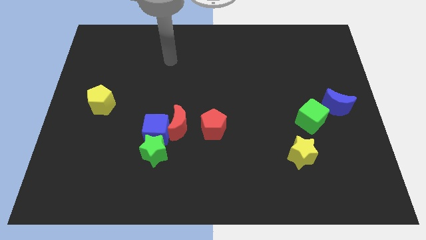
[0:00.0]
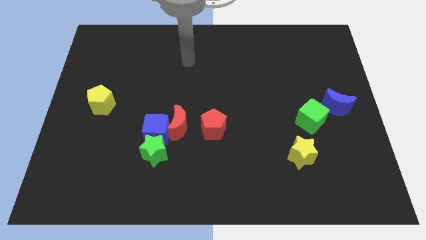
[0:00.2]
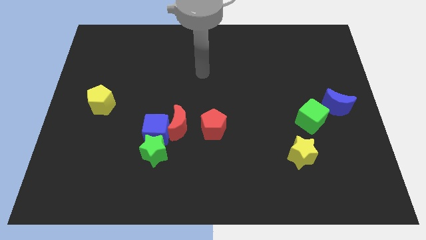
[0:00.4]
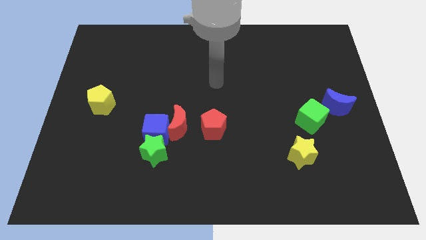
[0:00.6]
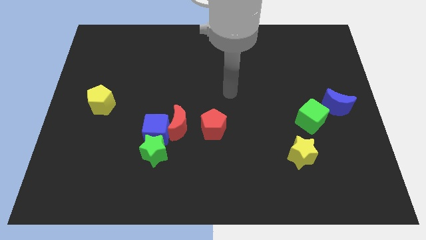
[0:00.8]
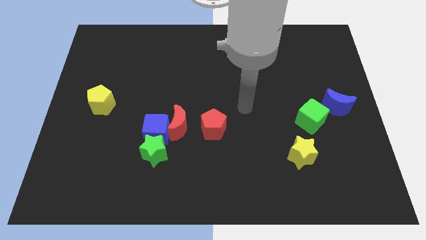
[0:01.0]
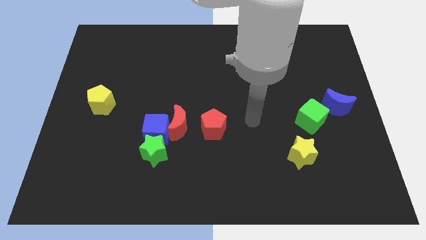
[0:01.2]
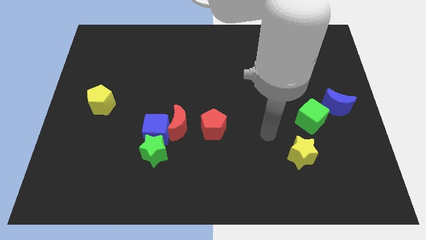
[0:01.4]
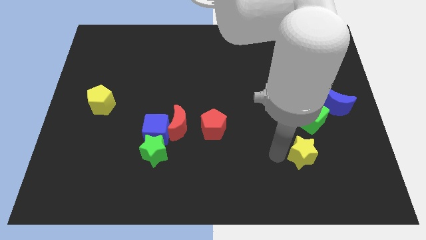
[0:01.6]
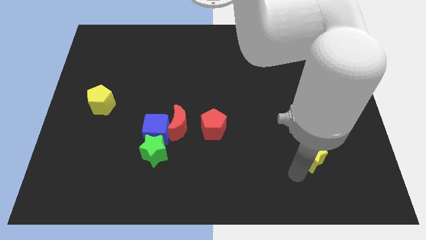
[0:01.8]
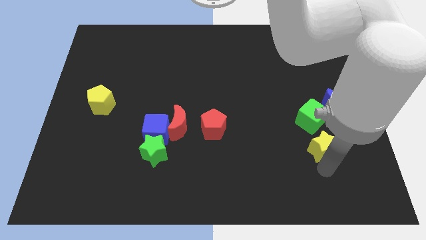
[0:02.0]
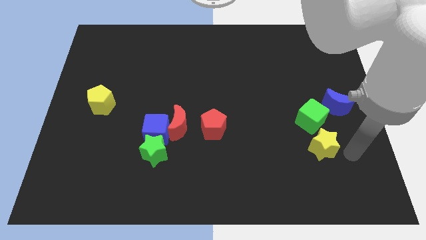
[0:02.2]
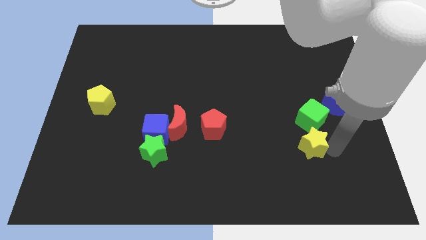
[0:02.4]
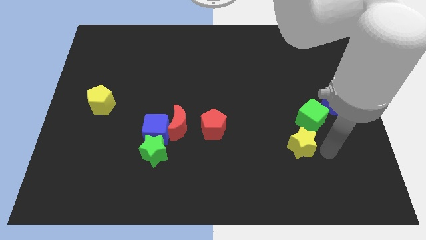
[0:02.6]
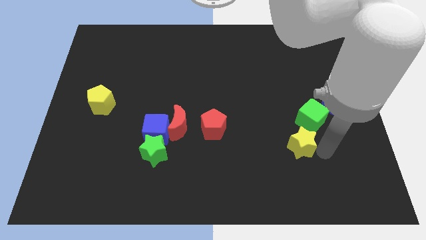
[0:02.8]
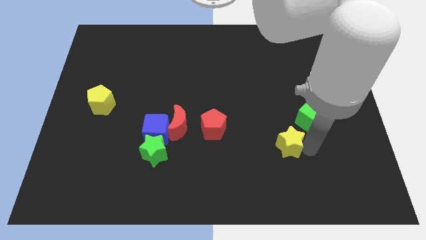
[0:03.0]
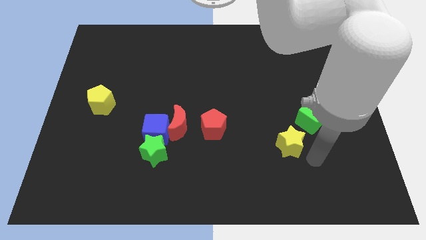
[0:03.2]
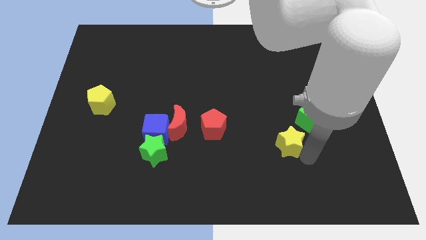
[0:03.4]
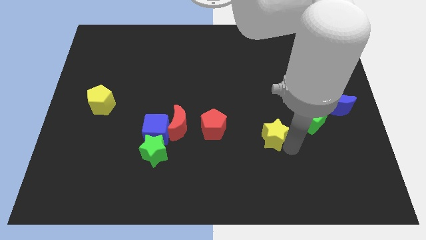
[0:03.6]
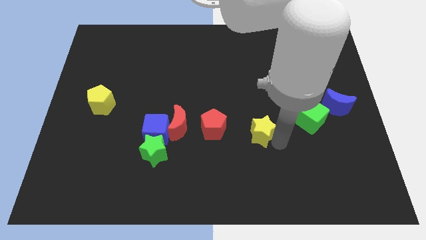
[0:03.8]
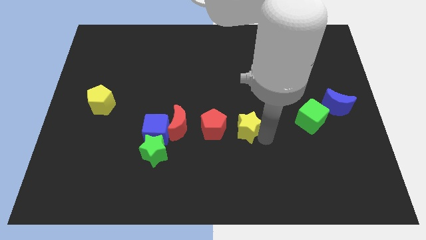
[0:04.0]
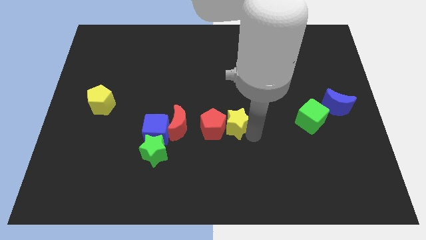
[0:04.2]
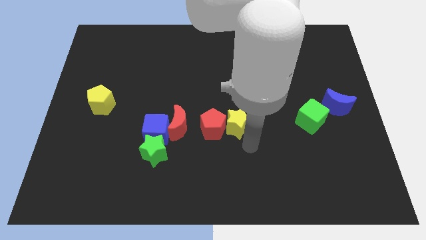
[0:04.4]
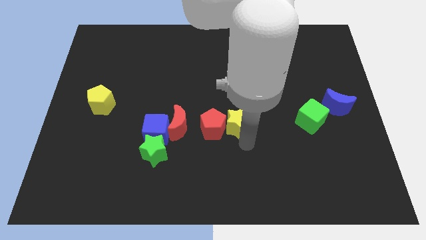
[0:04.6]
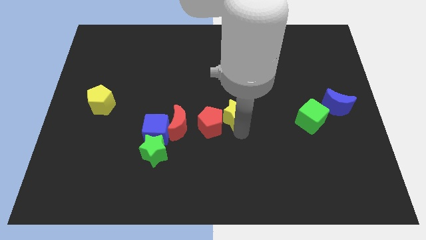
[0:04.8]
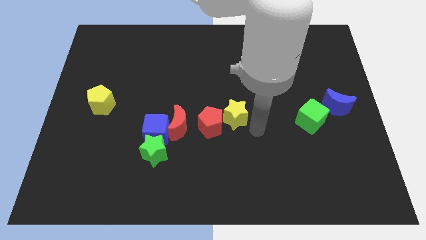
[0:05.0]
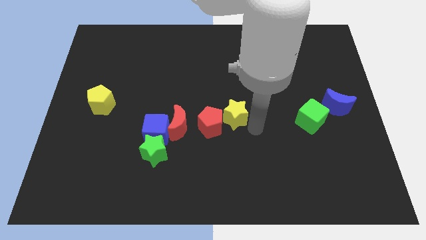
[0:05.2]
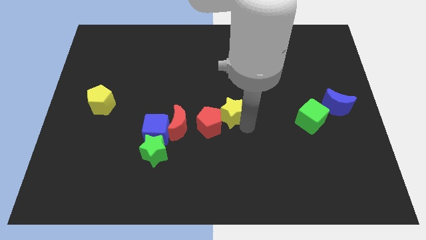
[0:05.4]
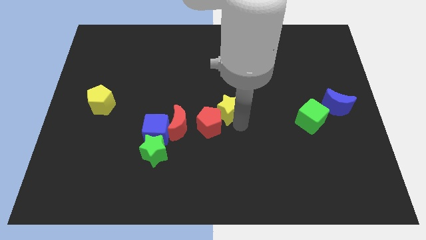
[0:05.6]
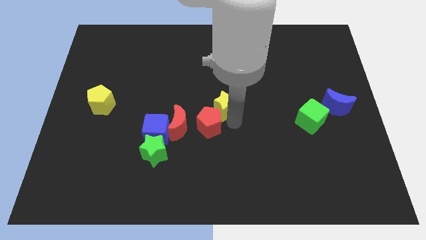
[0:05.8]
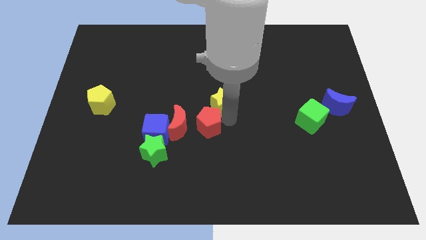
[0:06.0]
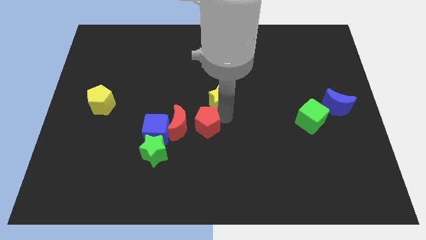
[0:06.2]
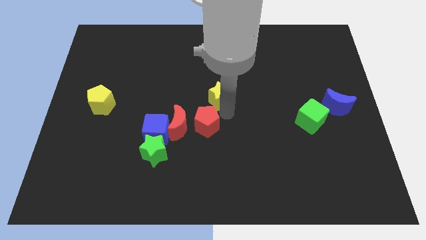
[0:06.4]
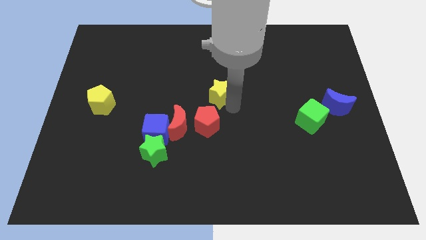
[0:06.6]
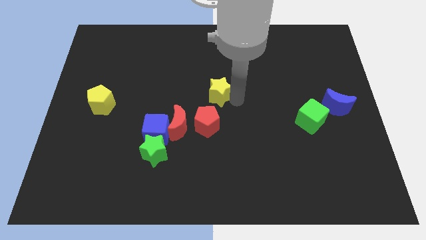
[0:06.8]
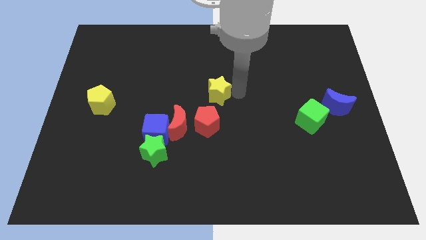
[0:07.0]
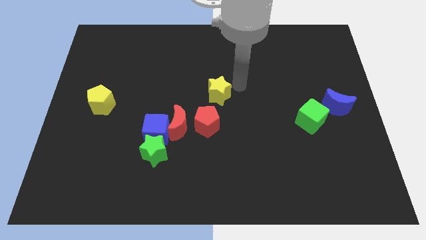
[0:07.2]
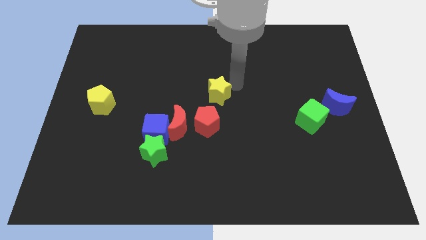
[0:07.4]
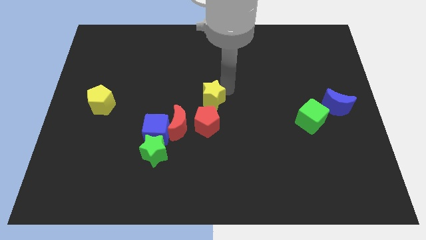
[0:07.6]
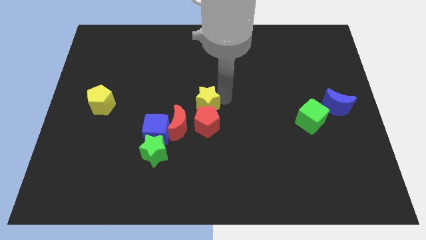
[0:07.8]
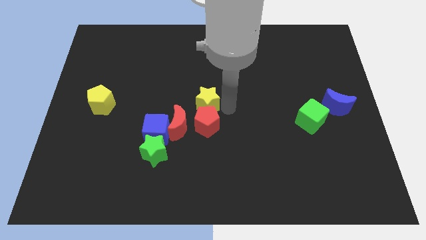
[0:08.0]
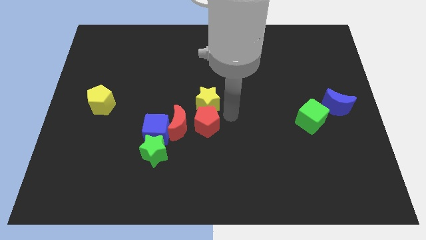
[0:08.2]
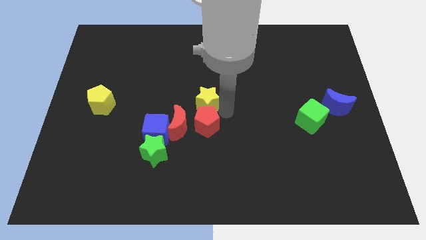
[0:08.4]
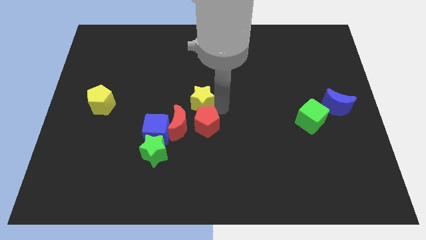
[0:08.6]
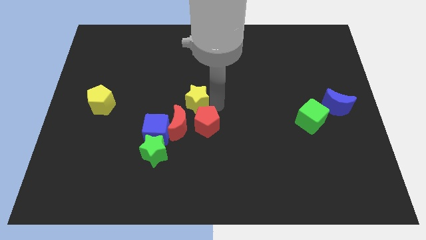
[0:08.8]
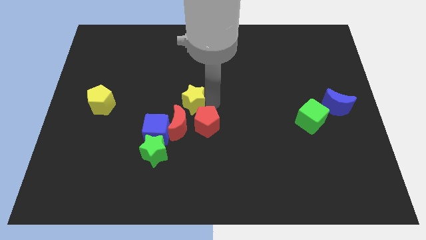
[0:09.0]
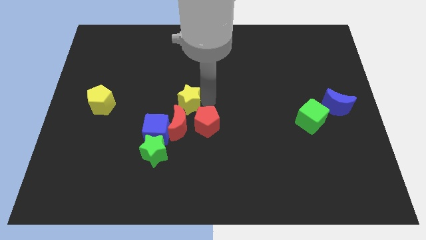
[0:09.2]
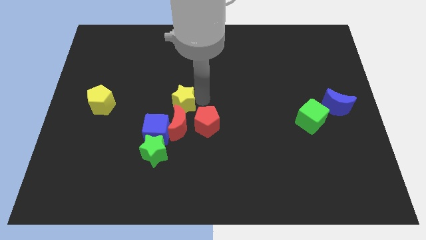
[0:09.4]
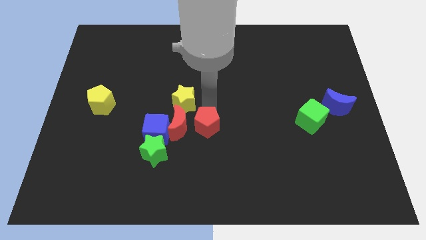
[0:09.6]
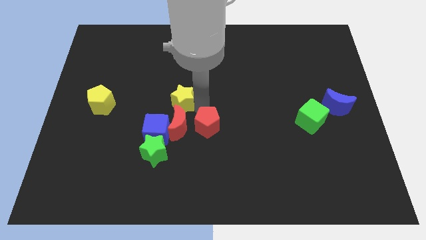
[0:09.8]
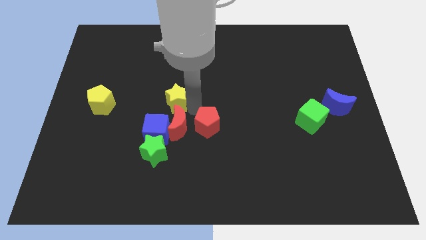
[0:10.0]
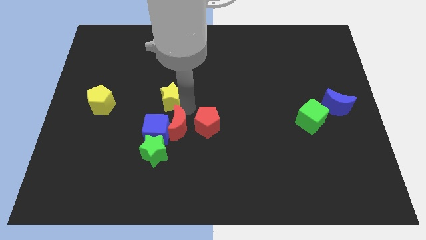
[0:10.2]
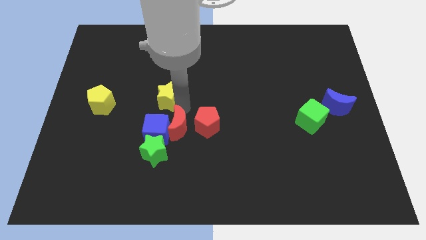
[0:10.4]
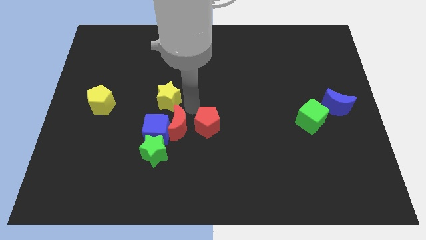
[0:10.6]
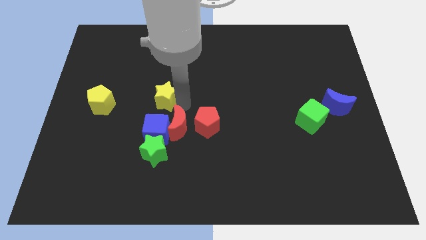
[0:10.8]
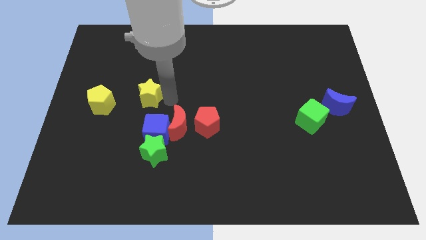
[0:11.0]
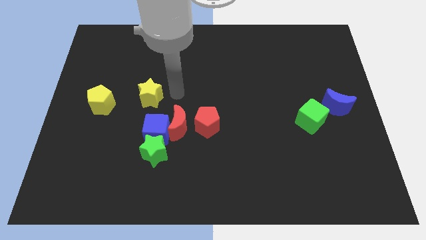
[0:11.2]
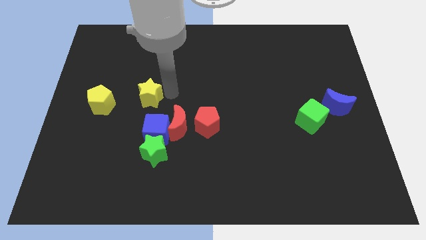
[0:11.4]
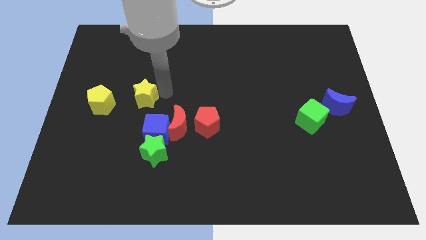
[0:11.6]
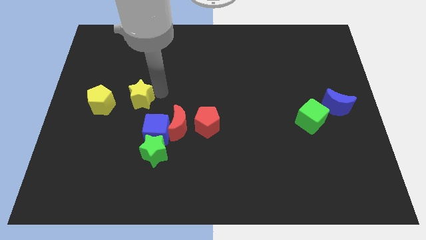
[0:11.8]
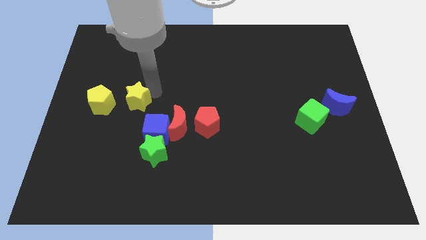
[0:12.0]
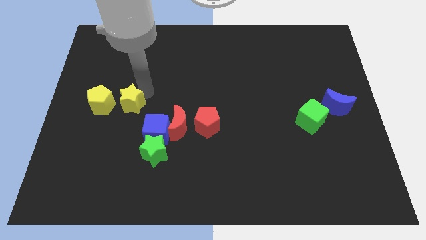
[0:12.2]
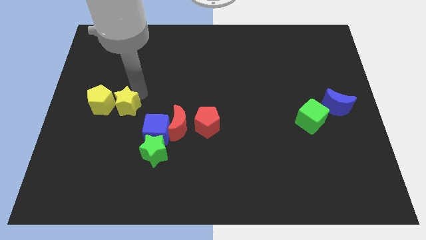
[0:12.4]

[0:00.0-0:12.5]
push the yellow star next to the yellow pentagon

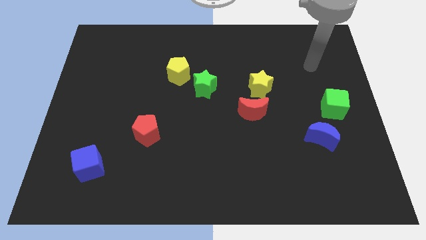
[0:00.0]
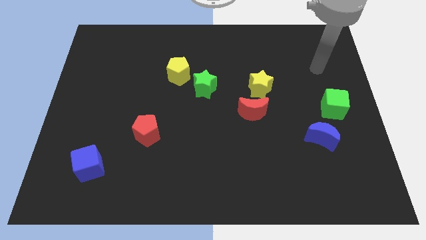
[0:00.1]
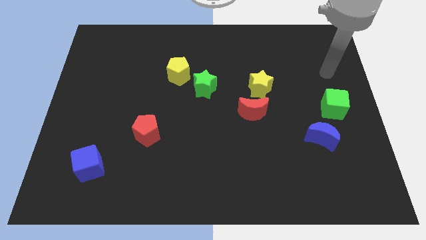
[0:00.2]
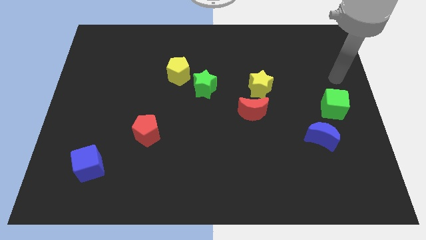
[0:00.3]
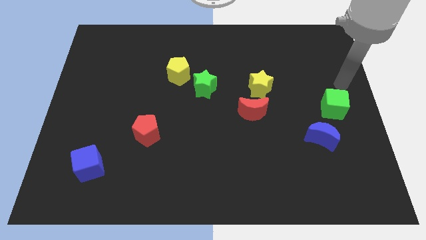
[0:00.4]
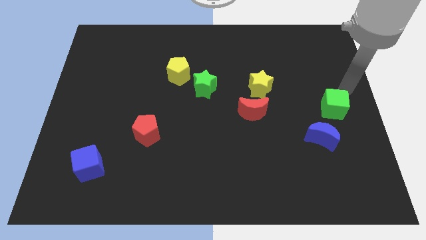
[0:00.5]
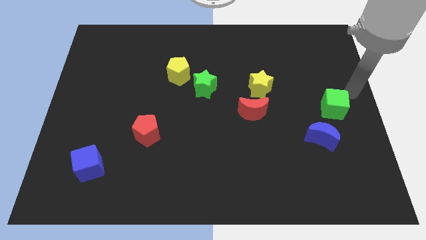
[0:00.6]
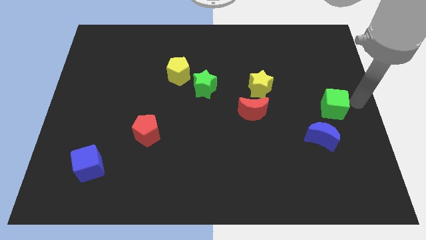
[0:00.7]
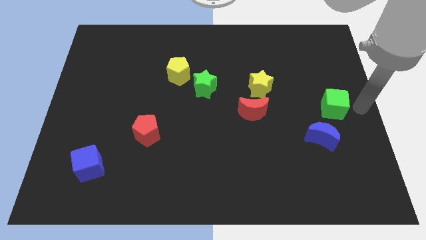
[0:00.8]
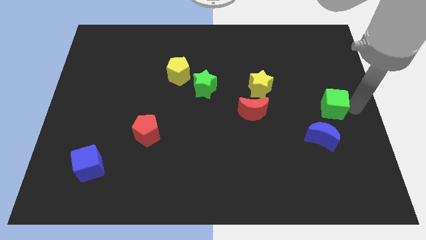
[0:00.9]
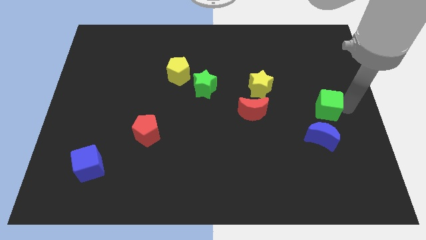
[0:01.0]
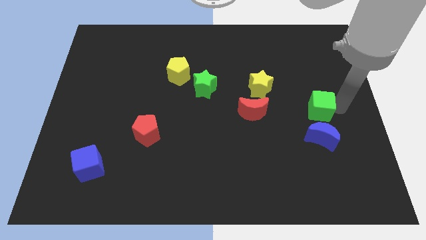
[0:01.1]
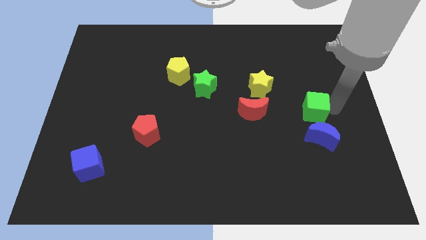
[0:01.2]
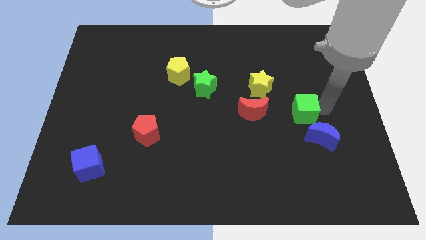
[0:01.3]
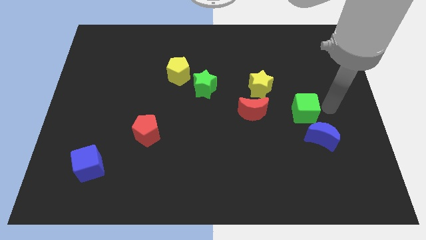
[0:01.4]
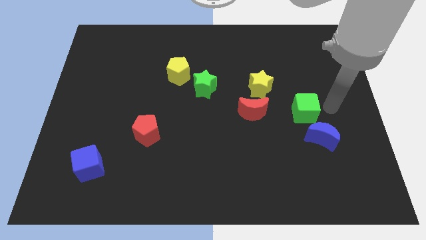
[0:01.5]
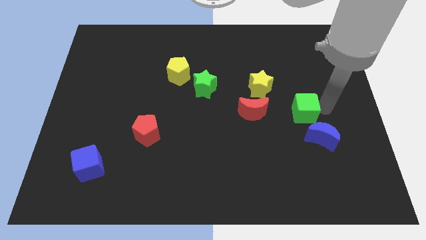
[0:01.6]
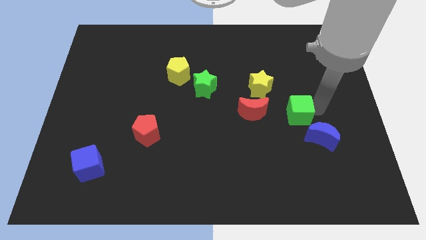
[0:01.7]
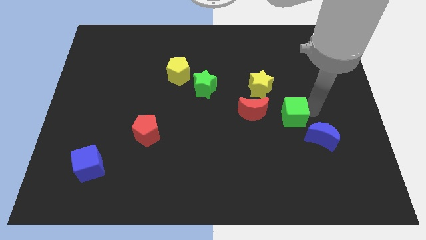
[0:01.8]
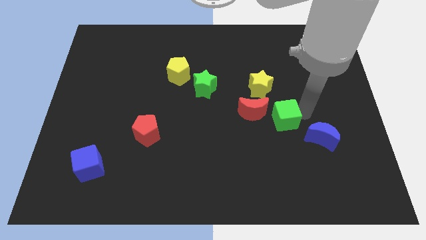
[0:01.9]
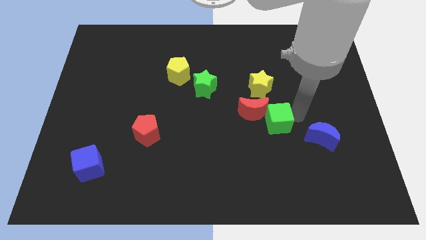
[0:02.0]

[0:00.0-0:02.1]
put the green cube close to the red moon
